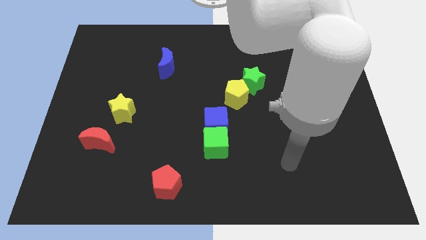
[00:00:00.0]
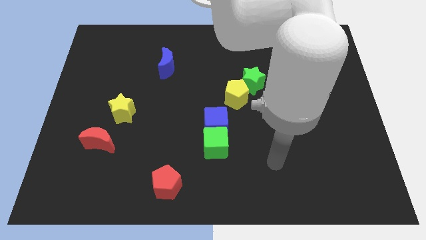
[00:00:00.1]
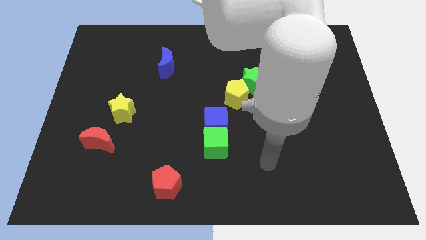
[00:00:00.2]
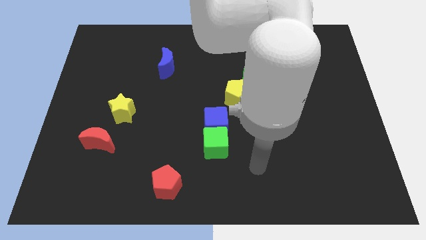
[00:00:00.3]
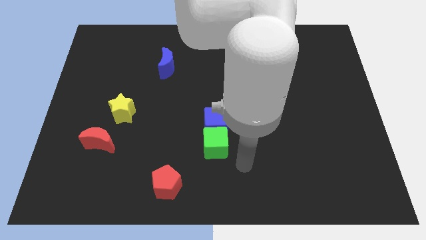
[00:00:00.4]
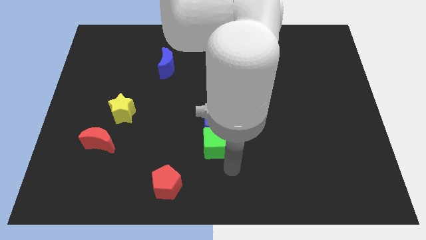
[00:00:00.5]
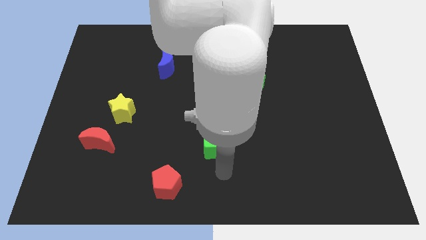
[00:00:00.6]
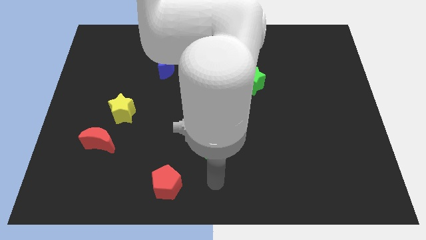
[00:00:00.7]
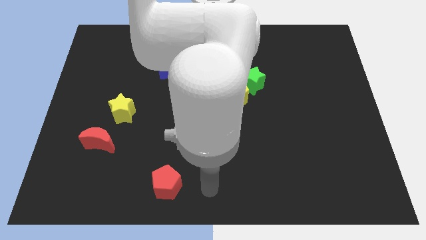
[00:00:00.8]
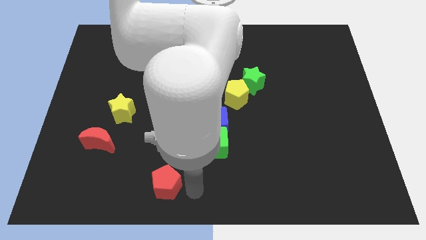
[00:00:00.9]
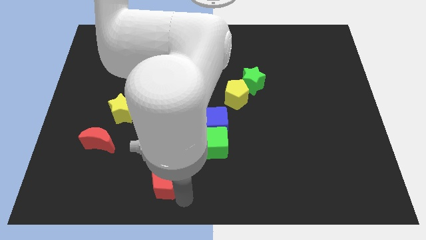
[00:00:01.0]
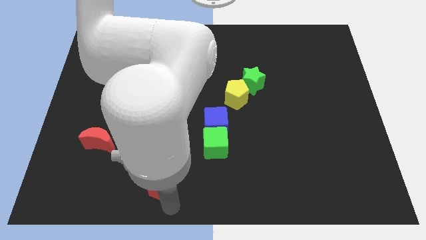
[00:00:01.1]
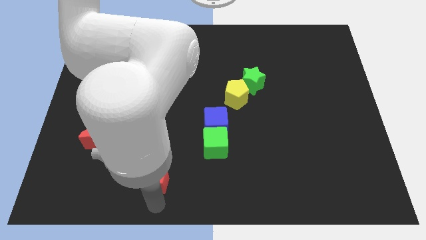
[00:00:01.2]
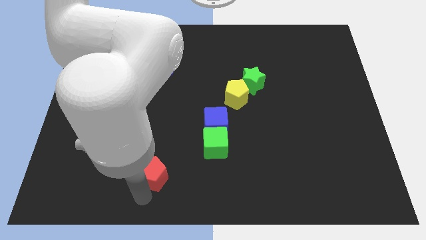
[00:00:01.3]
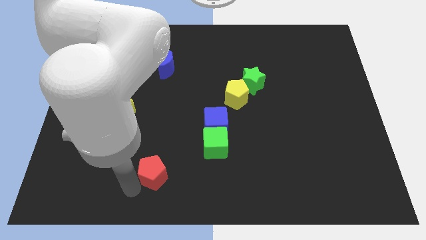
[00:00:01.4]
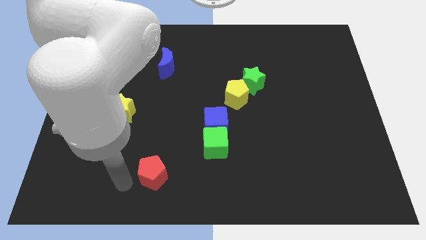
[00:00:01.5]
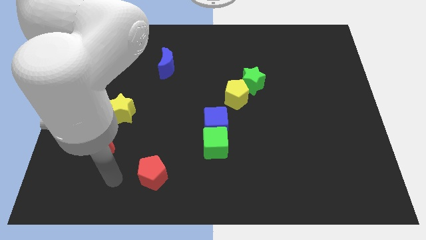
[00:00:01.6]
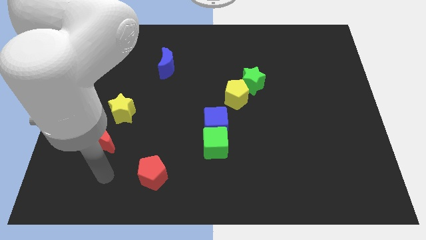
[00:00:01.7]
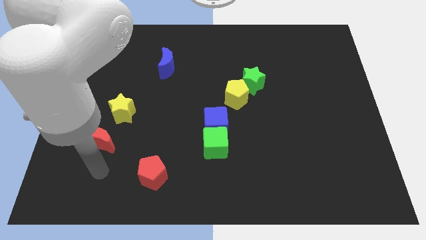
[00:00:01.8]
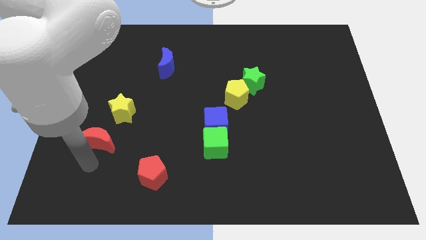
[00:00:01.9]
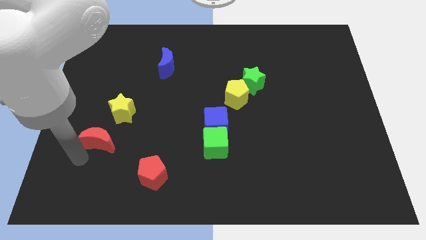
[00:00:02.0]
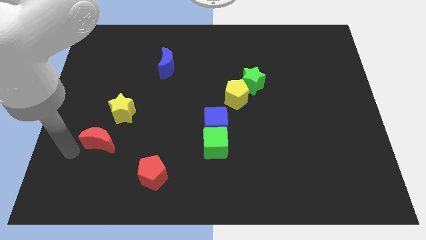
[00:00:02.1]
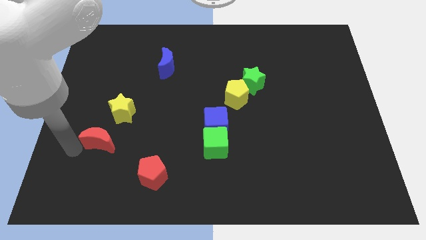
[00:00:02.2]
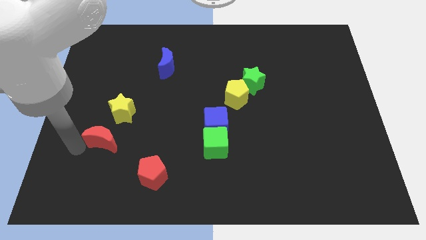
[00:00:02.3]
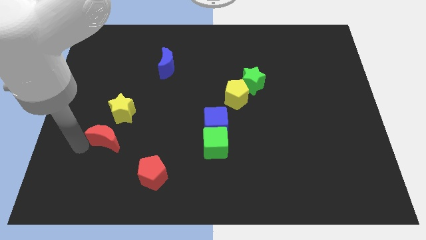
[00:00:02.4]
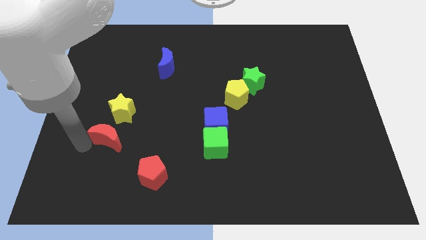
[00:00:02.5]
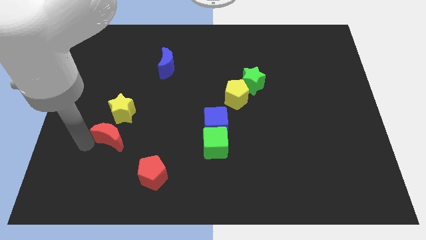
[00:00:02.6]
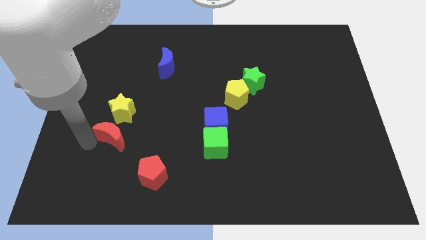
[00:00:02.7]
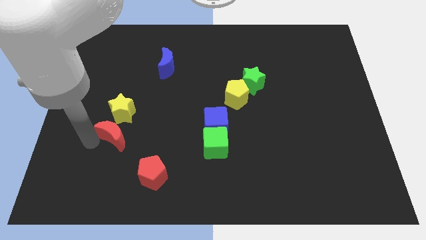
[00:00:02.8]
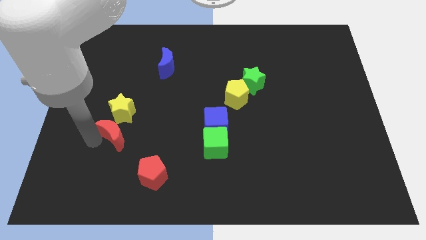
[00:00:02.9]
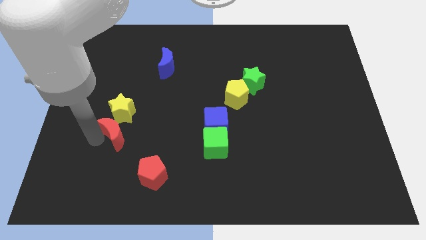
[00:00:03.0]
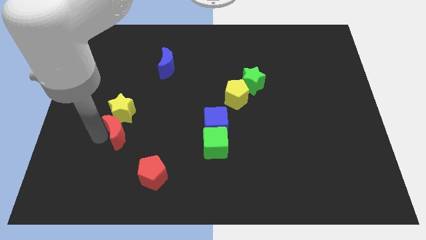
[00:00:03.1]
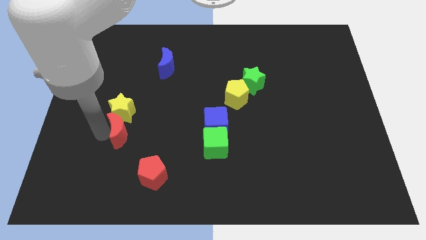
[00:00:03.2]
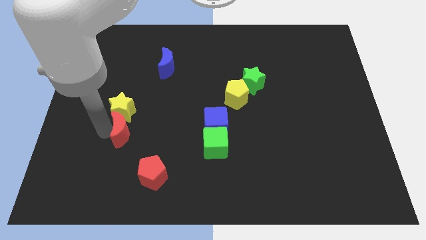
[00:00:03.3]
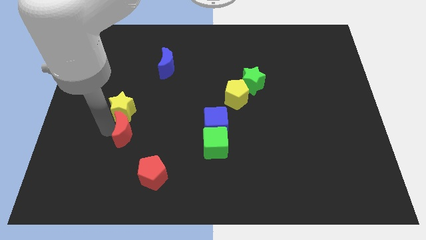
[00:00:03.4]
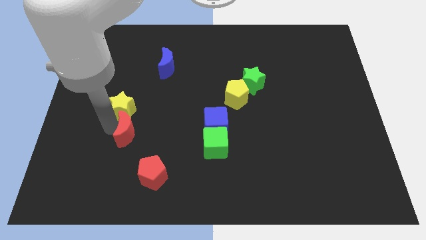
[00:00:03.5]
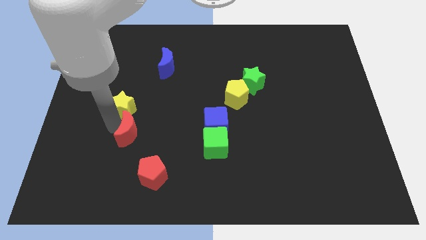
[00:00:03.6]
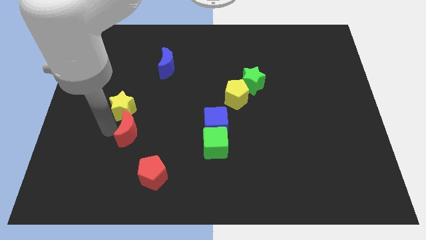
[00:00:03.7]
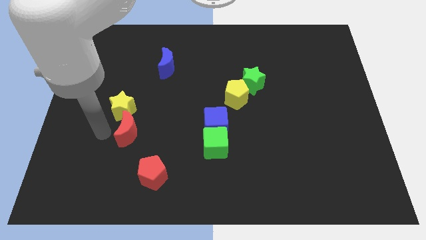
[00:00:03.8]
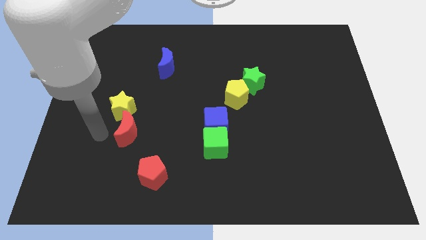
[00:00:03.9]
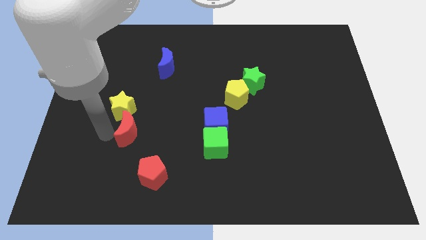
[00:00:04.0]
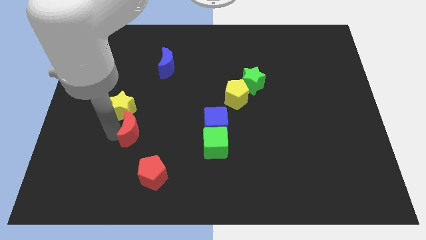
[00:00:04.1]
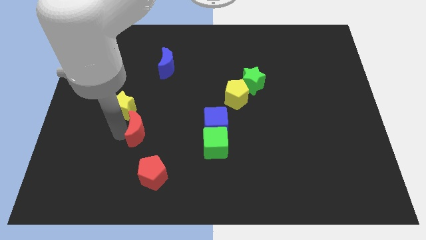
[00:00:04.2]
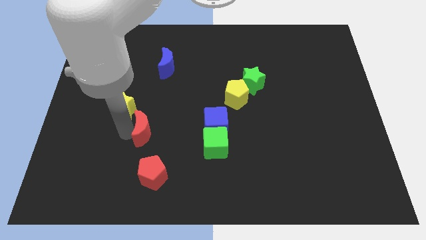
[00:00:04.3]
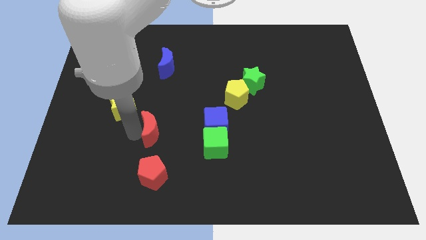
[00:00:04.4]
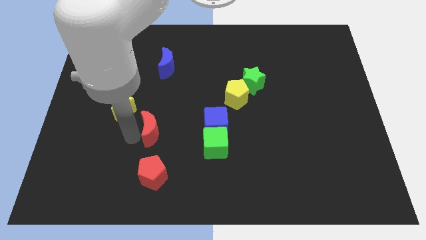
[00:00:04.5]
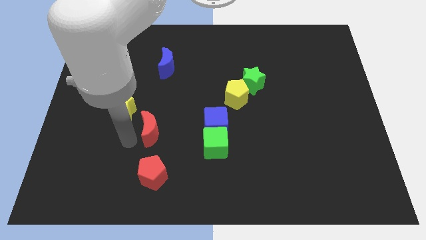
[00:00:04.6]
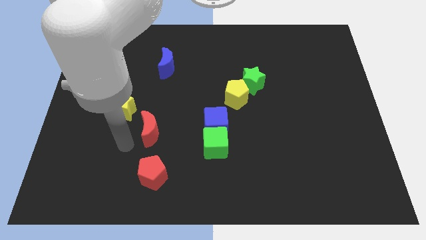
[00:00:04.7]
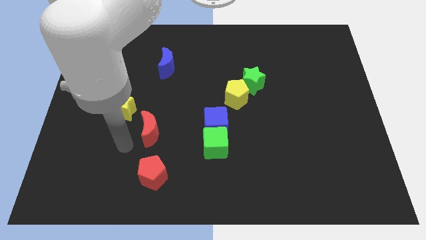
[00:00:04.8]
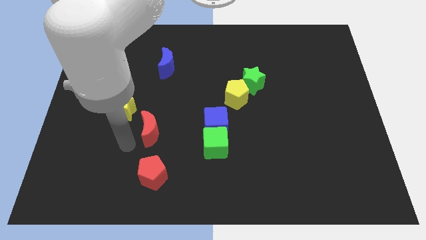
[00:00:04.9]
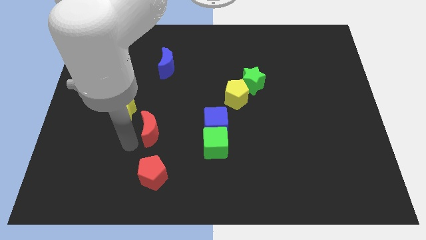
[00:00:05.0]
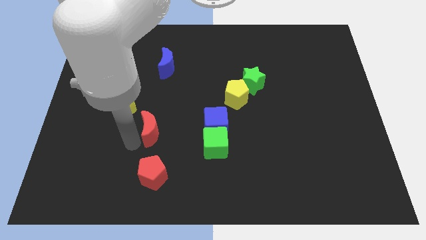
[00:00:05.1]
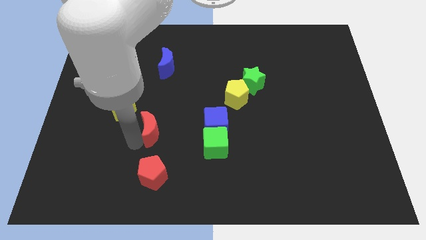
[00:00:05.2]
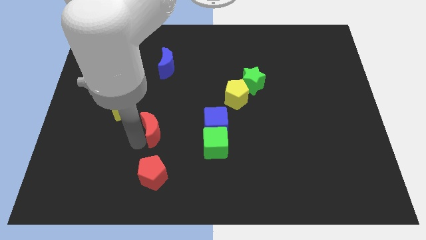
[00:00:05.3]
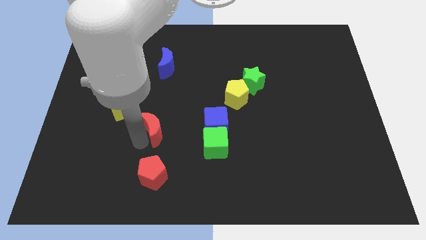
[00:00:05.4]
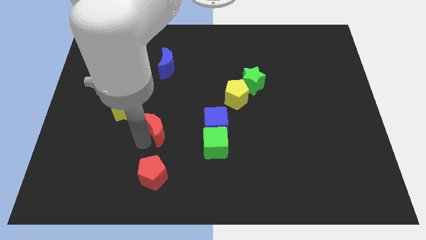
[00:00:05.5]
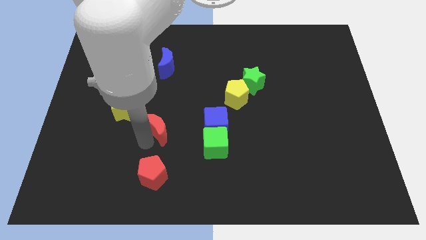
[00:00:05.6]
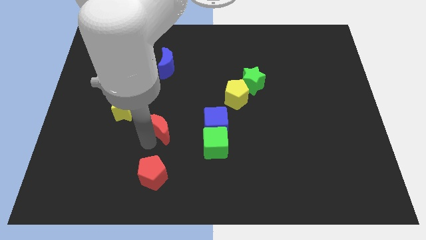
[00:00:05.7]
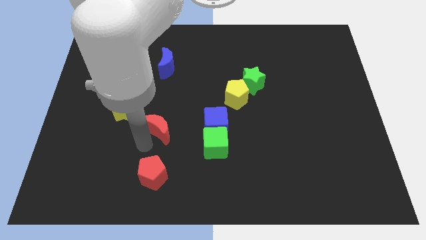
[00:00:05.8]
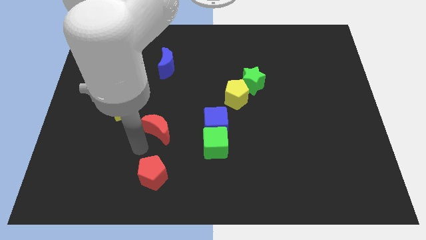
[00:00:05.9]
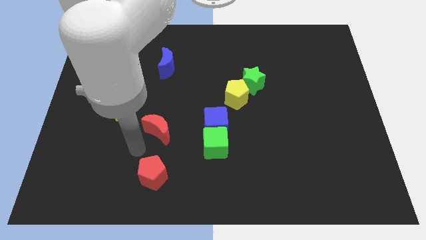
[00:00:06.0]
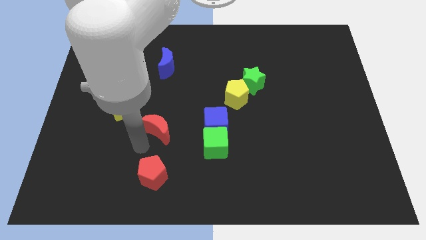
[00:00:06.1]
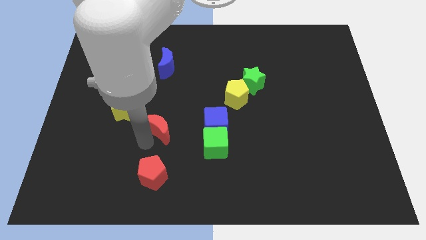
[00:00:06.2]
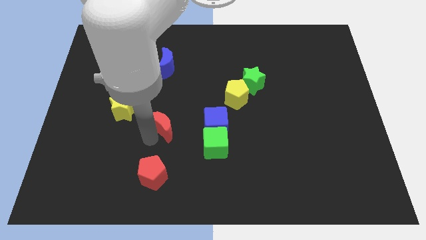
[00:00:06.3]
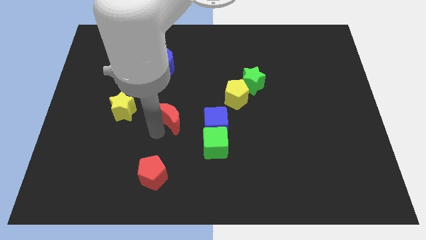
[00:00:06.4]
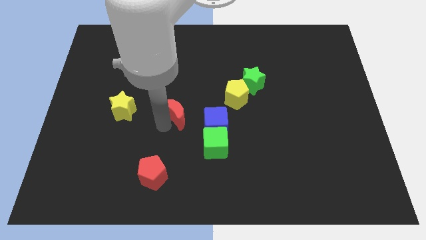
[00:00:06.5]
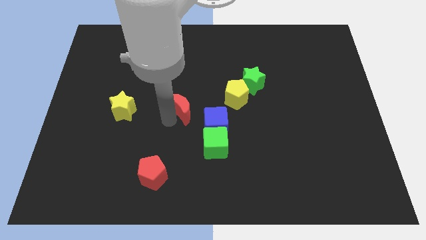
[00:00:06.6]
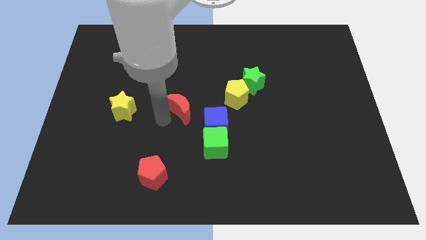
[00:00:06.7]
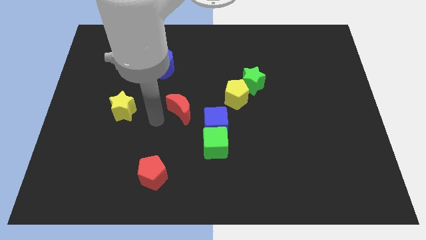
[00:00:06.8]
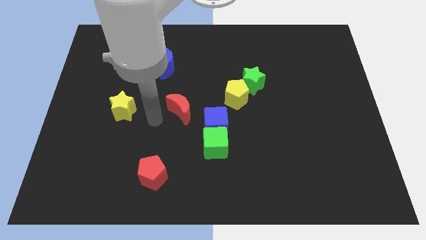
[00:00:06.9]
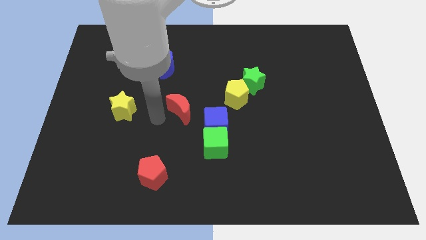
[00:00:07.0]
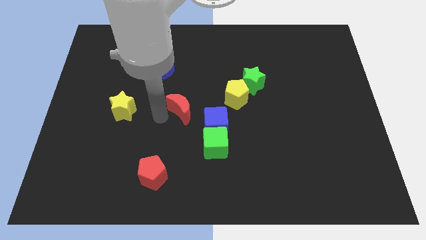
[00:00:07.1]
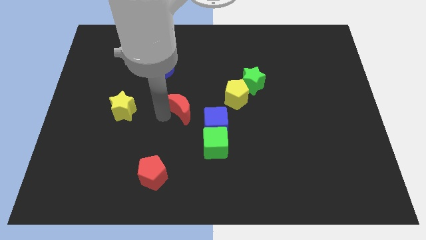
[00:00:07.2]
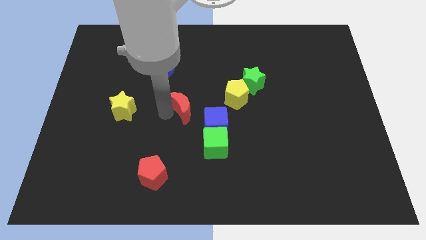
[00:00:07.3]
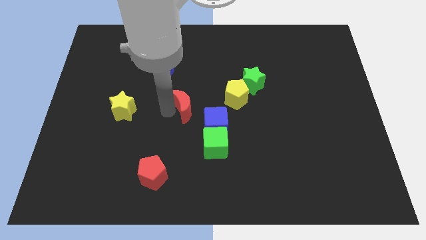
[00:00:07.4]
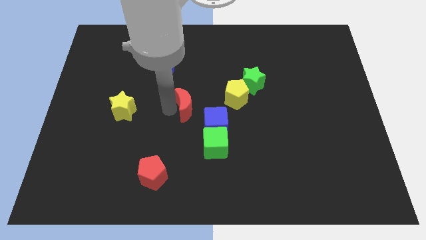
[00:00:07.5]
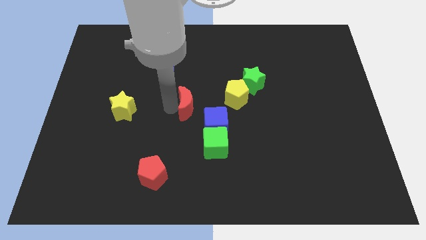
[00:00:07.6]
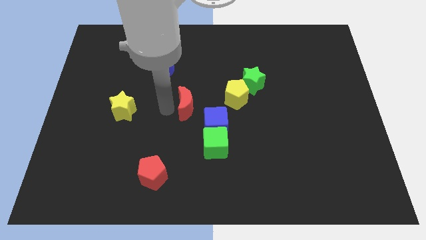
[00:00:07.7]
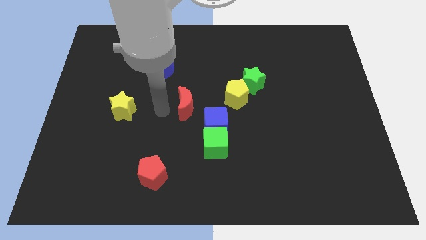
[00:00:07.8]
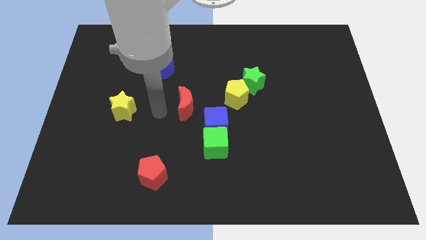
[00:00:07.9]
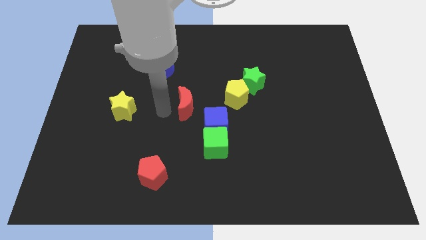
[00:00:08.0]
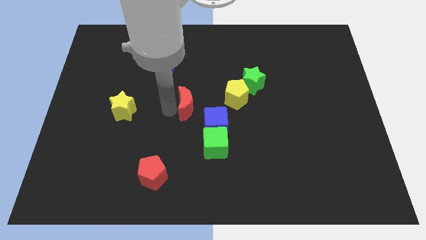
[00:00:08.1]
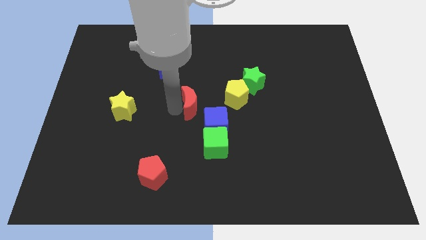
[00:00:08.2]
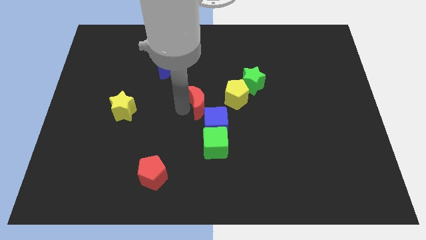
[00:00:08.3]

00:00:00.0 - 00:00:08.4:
move the red moon to the top of the blue cube
